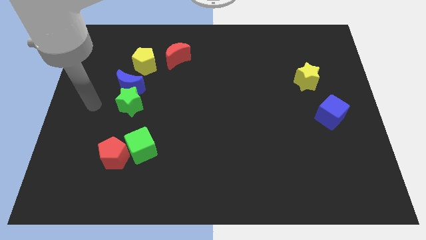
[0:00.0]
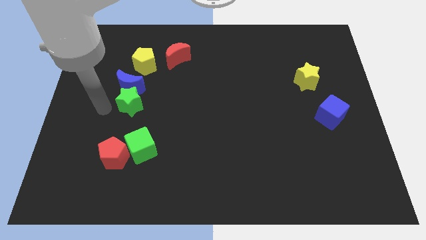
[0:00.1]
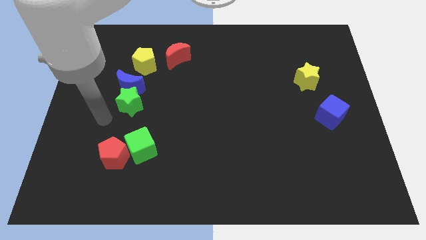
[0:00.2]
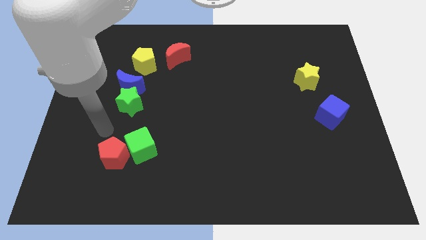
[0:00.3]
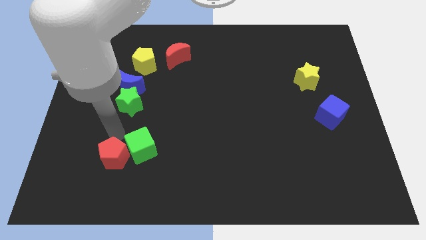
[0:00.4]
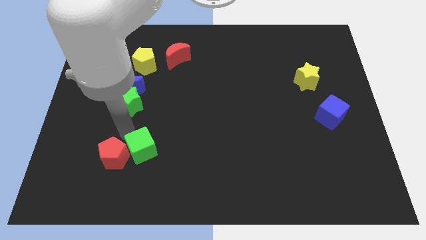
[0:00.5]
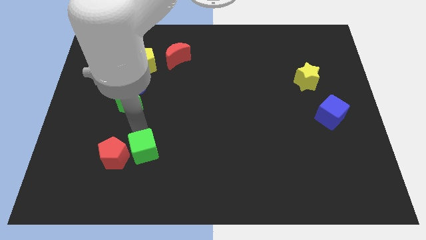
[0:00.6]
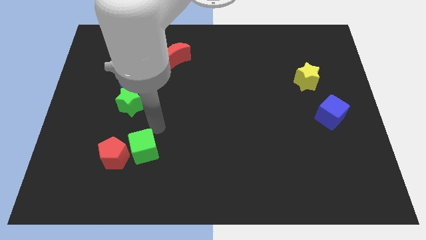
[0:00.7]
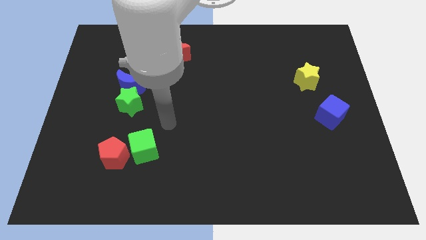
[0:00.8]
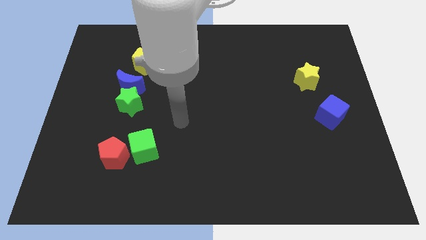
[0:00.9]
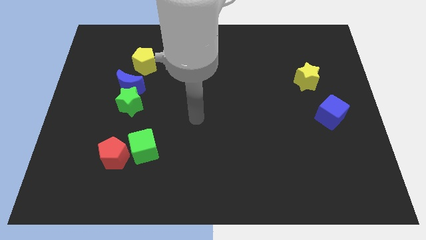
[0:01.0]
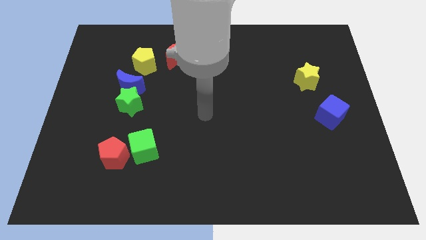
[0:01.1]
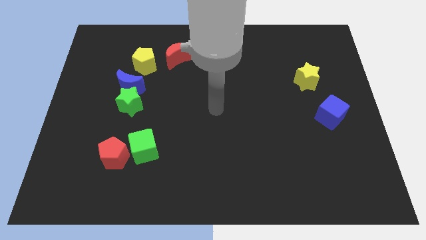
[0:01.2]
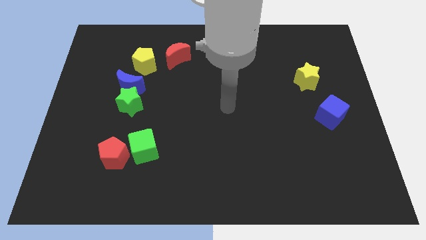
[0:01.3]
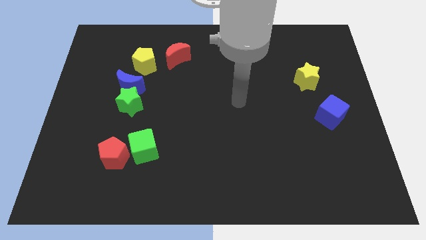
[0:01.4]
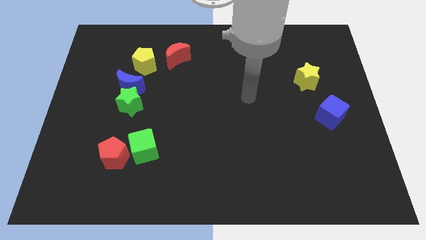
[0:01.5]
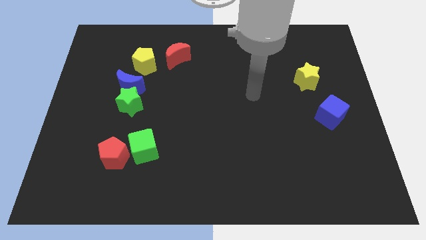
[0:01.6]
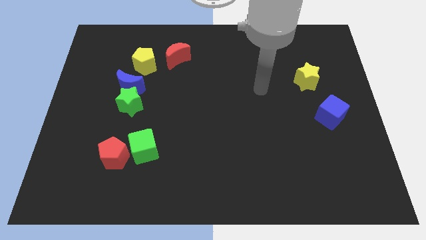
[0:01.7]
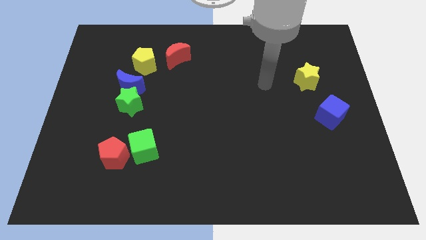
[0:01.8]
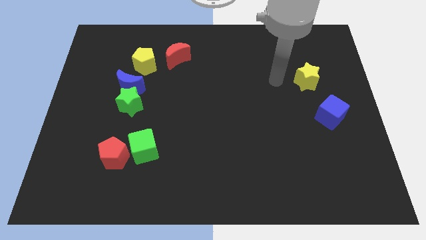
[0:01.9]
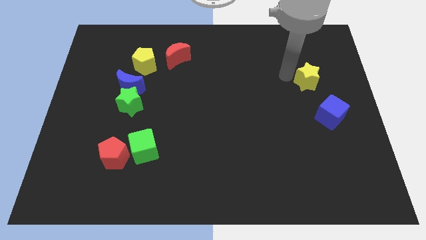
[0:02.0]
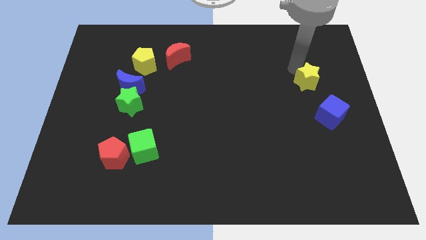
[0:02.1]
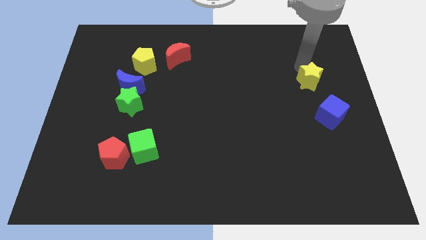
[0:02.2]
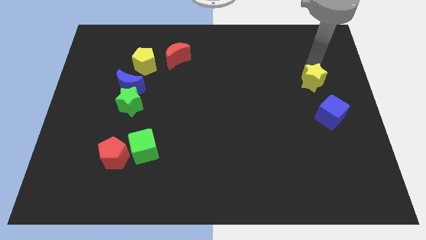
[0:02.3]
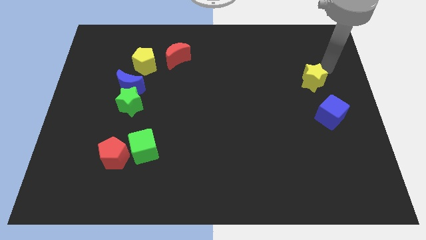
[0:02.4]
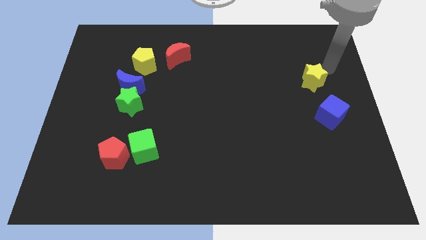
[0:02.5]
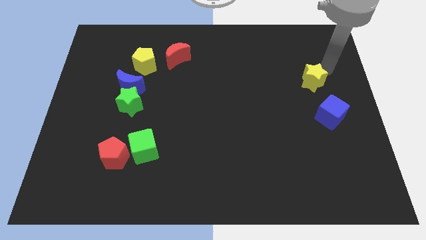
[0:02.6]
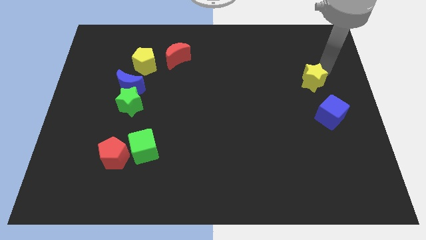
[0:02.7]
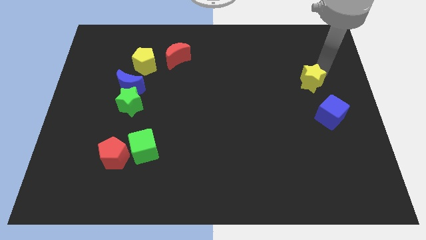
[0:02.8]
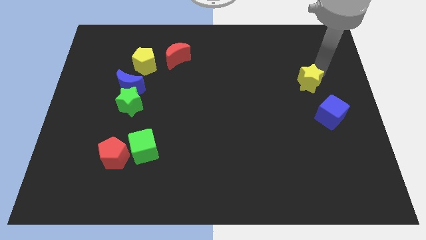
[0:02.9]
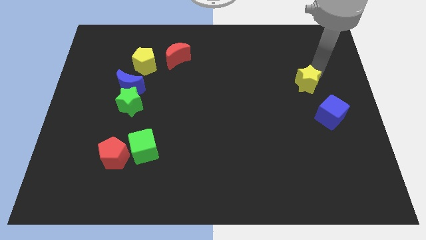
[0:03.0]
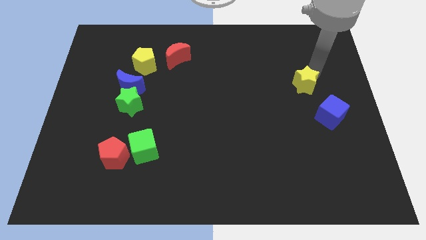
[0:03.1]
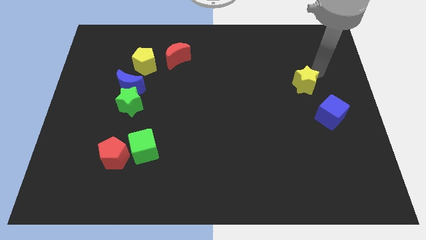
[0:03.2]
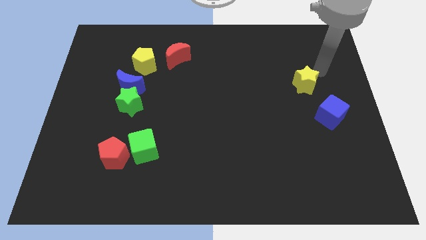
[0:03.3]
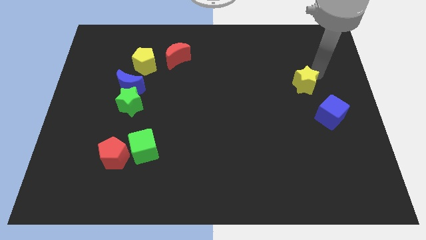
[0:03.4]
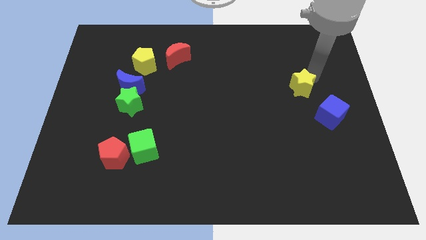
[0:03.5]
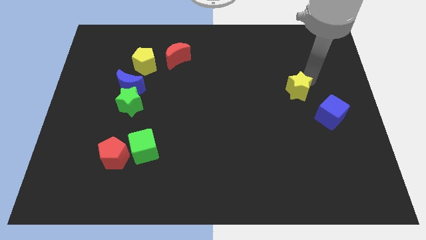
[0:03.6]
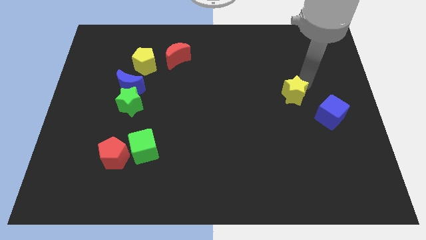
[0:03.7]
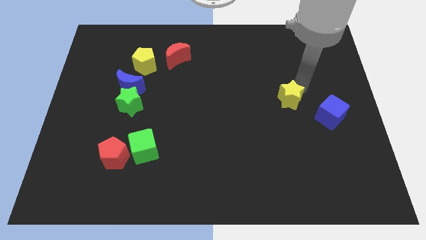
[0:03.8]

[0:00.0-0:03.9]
slightly slide the yellow star diagonally downwards and to the left

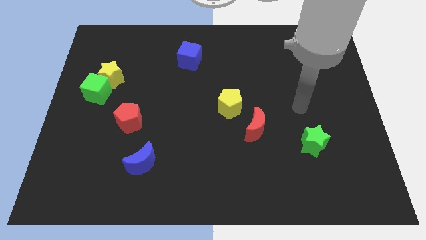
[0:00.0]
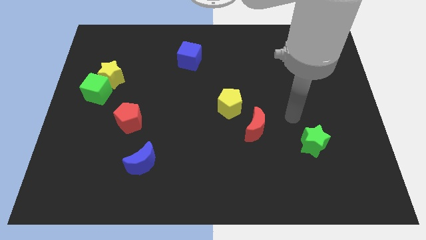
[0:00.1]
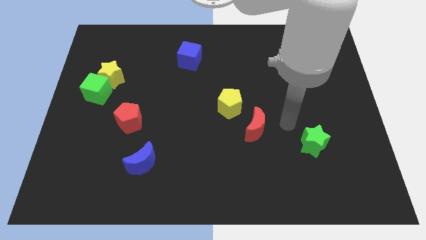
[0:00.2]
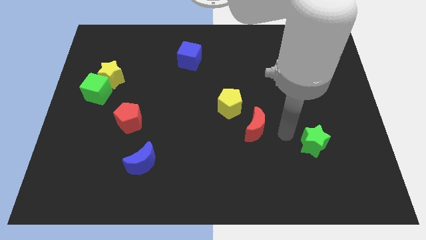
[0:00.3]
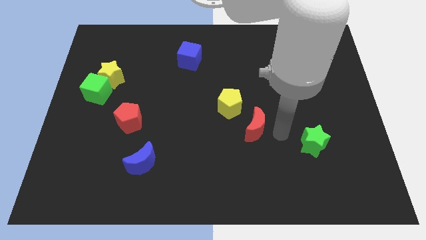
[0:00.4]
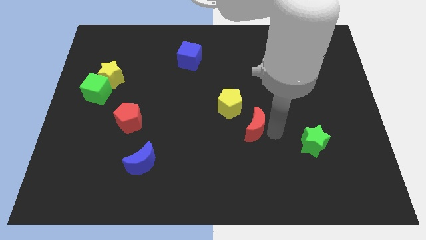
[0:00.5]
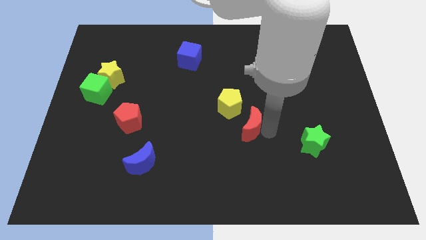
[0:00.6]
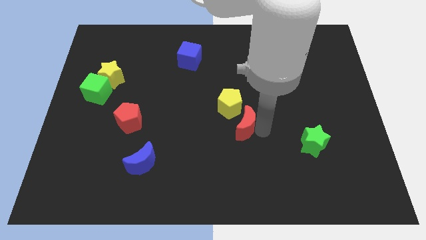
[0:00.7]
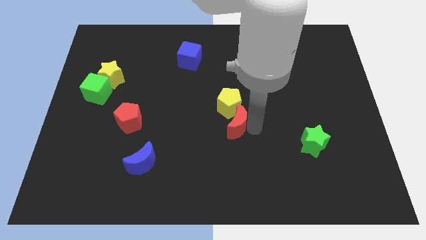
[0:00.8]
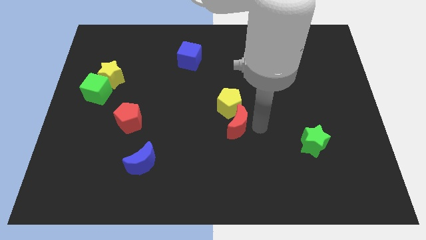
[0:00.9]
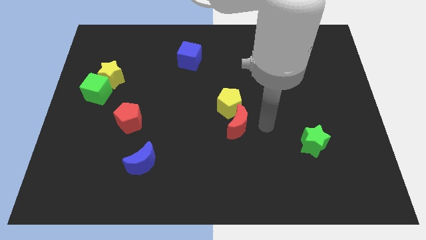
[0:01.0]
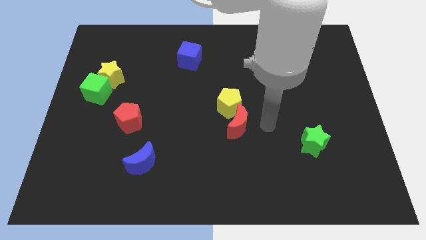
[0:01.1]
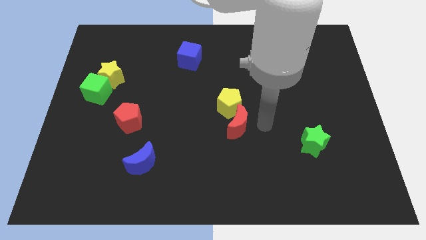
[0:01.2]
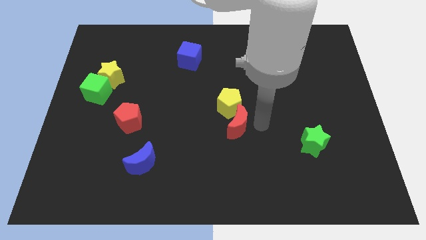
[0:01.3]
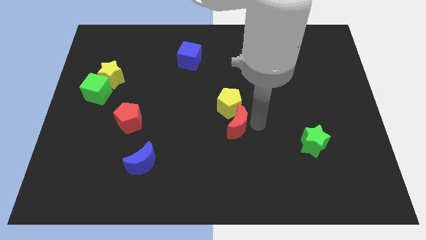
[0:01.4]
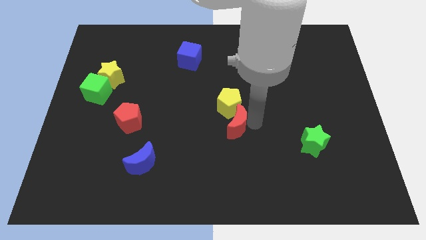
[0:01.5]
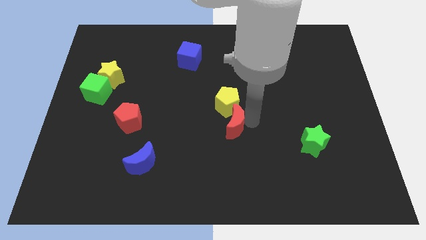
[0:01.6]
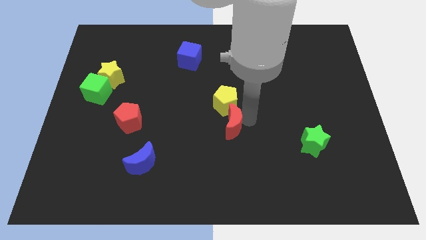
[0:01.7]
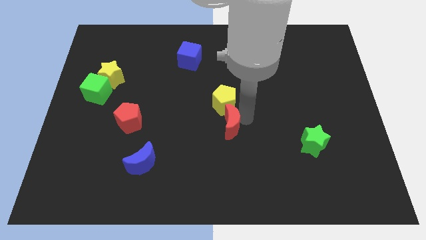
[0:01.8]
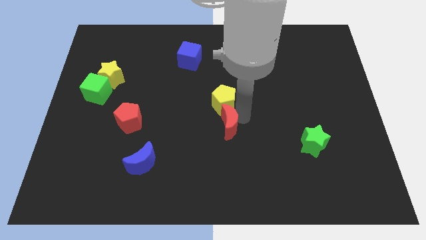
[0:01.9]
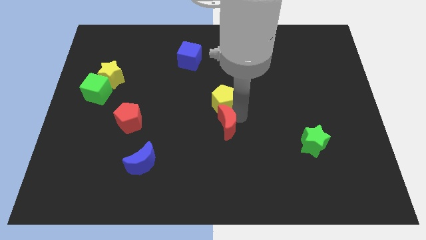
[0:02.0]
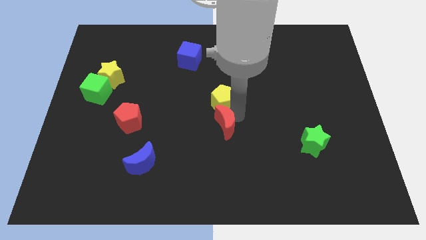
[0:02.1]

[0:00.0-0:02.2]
slightly push the red moon to the left

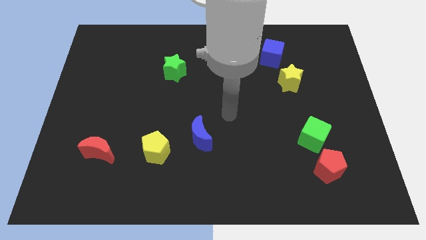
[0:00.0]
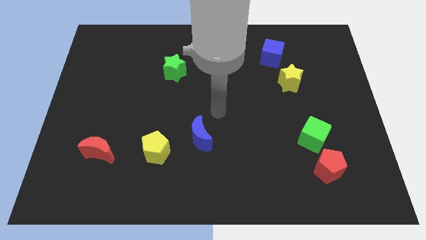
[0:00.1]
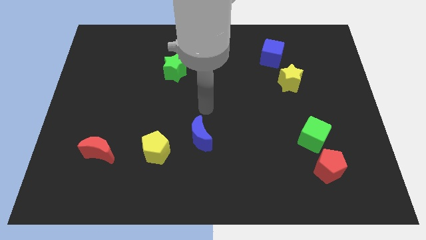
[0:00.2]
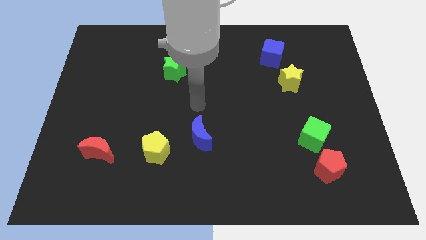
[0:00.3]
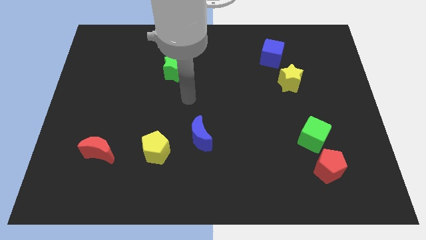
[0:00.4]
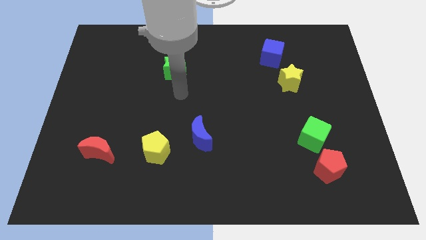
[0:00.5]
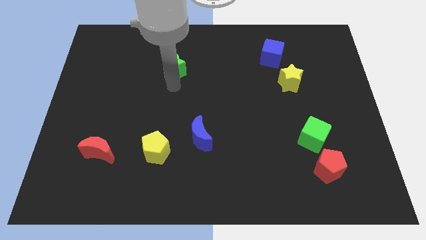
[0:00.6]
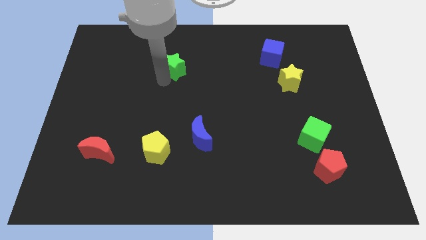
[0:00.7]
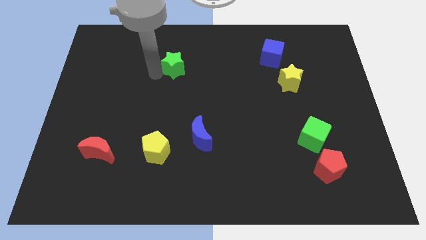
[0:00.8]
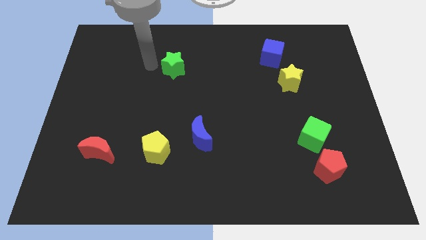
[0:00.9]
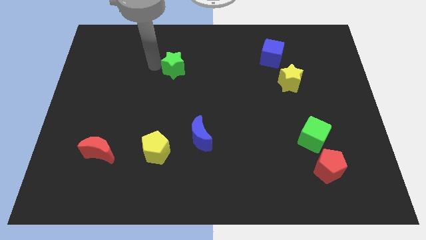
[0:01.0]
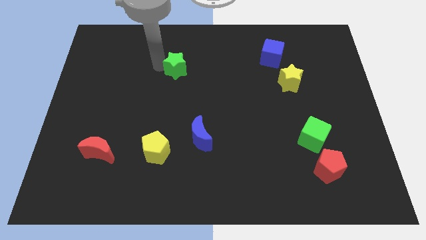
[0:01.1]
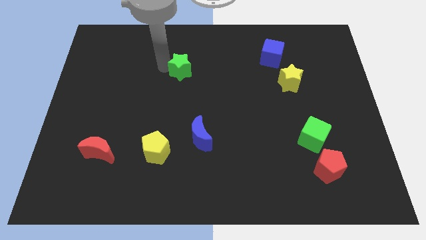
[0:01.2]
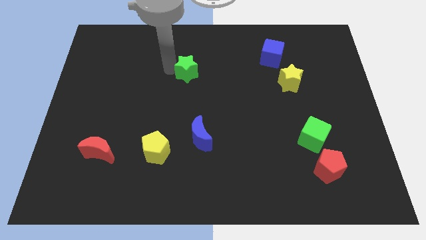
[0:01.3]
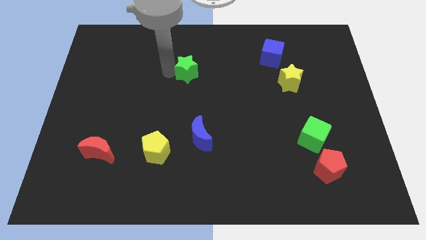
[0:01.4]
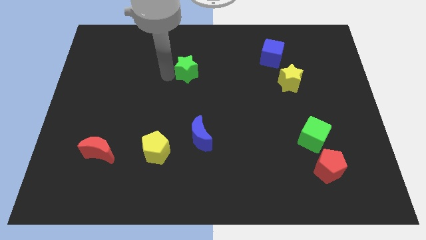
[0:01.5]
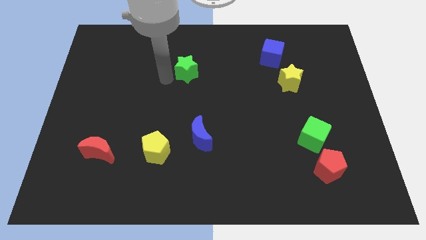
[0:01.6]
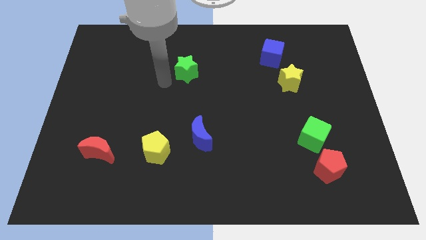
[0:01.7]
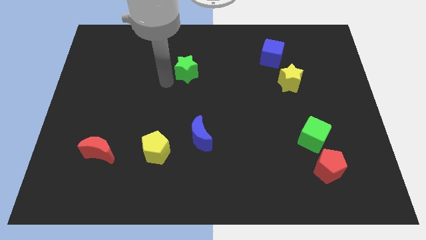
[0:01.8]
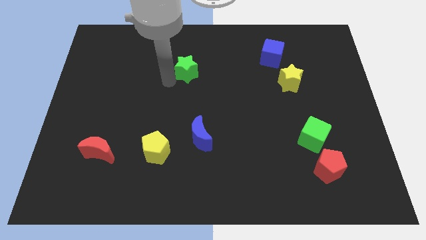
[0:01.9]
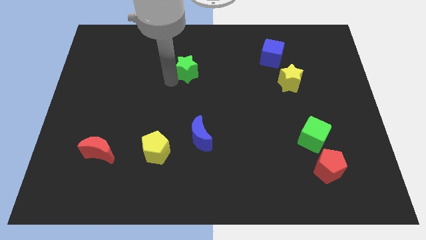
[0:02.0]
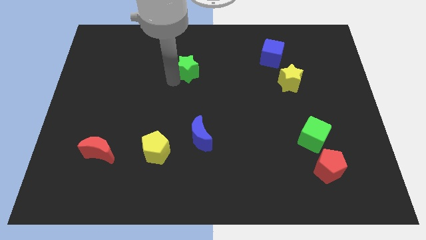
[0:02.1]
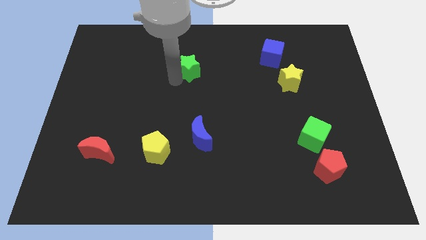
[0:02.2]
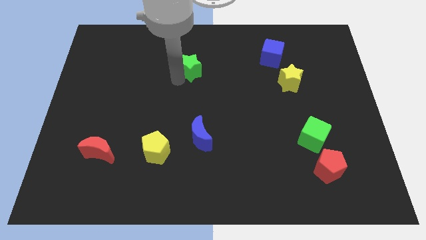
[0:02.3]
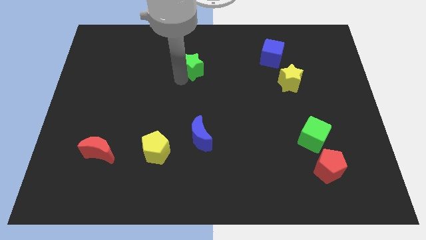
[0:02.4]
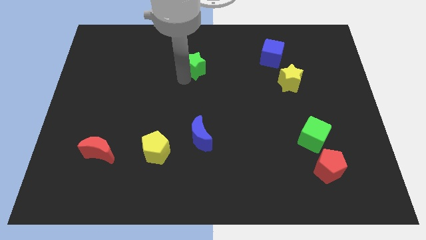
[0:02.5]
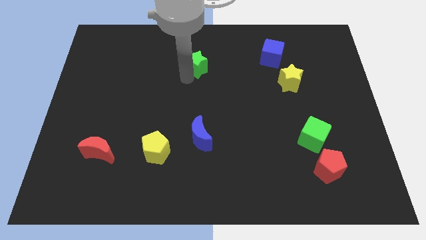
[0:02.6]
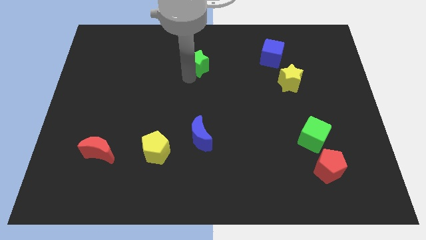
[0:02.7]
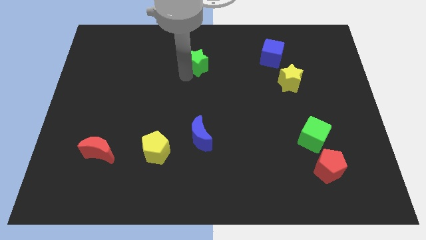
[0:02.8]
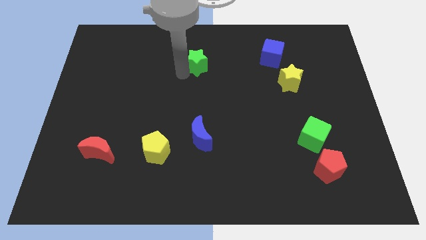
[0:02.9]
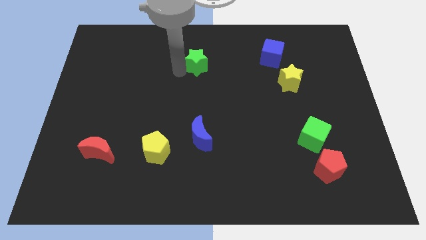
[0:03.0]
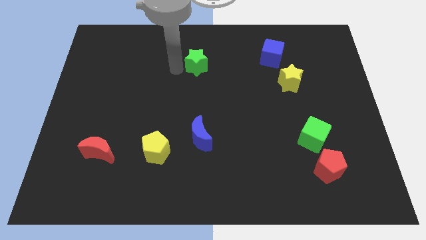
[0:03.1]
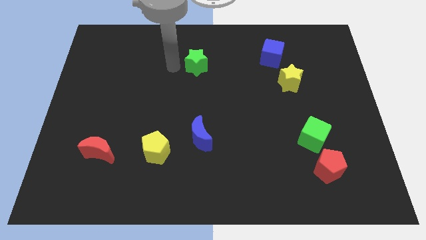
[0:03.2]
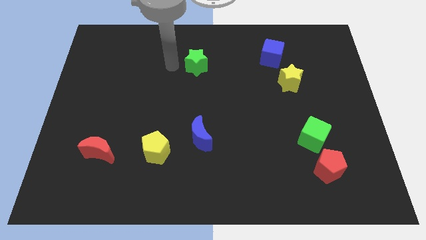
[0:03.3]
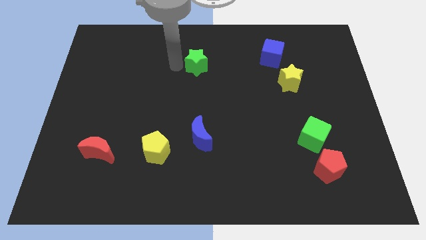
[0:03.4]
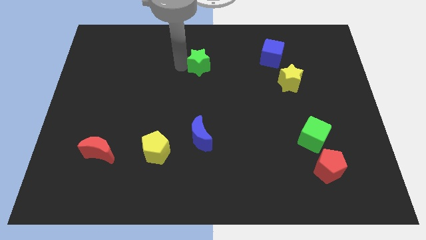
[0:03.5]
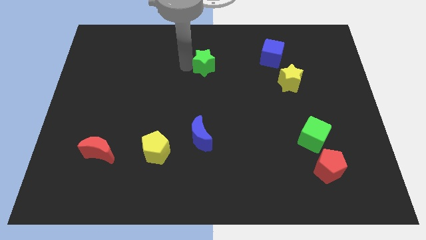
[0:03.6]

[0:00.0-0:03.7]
slightly move the green star right
